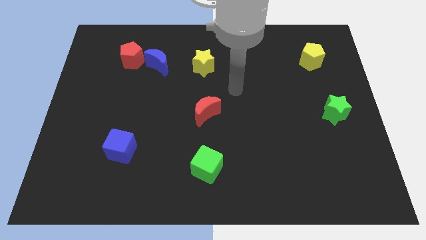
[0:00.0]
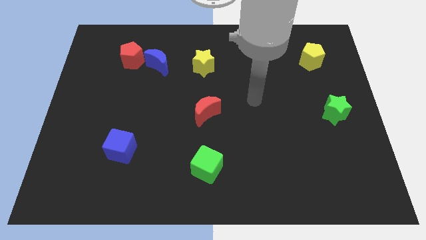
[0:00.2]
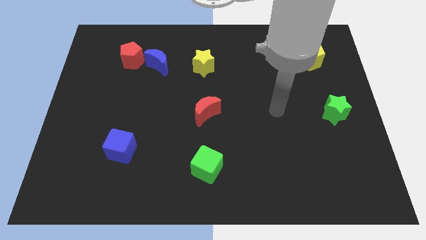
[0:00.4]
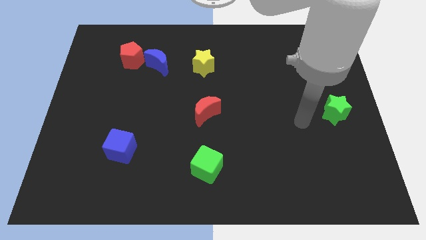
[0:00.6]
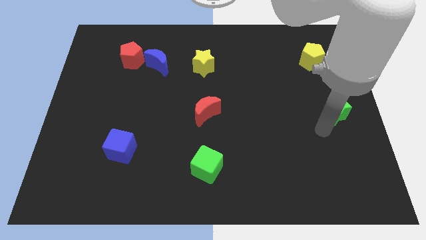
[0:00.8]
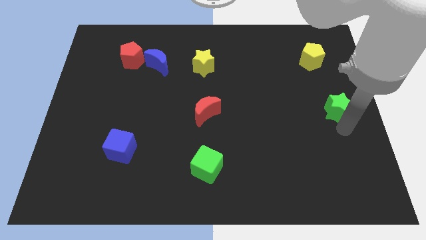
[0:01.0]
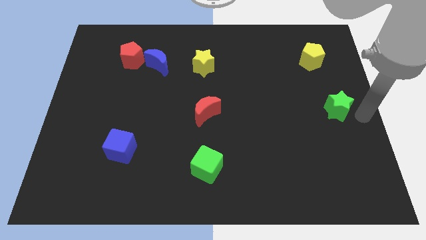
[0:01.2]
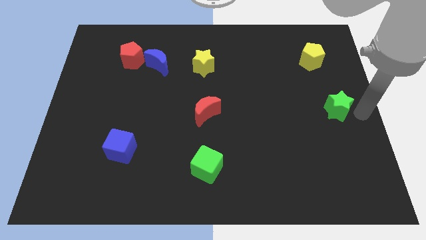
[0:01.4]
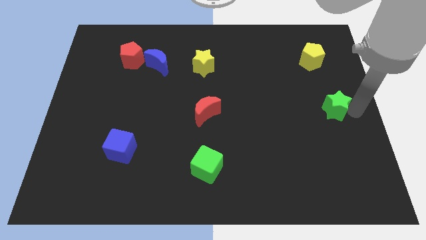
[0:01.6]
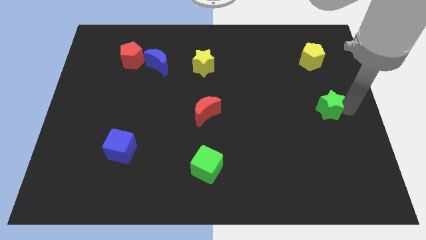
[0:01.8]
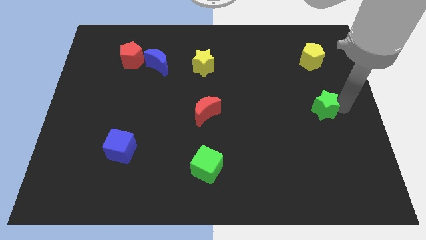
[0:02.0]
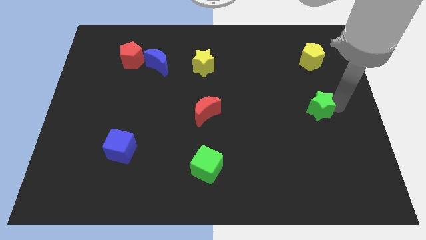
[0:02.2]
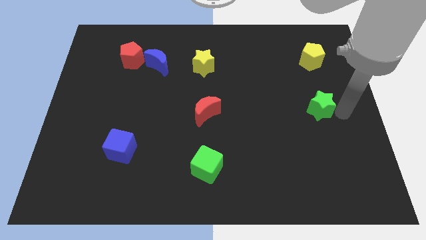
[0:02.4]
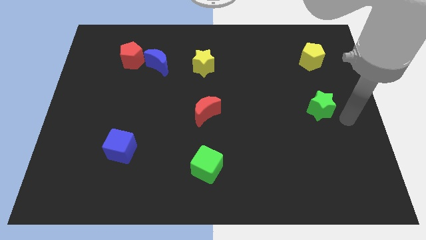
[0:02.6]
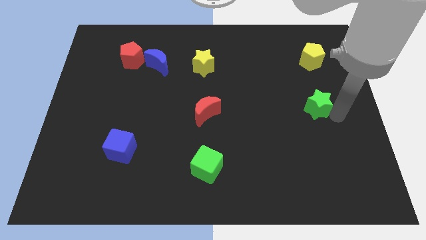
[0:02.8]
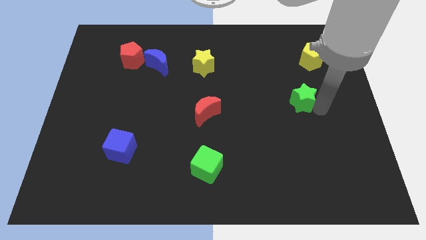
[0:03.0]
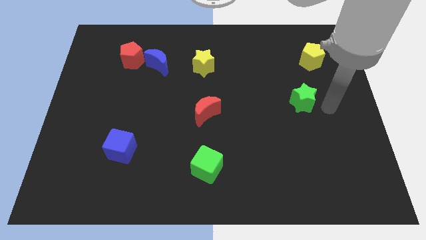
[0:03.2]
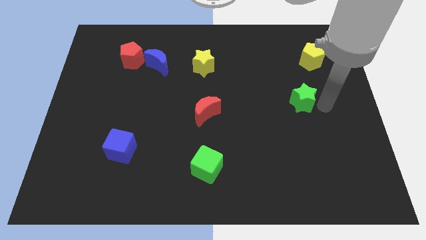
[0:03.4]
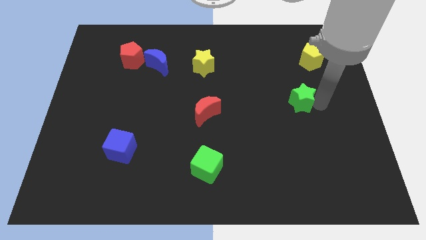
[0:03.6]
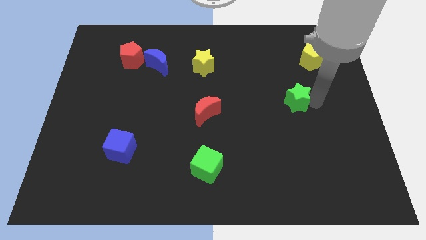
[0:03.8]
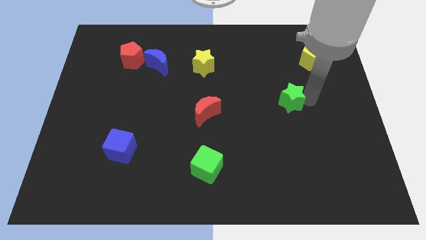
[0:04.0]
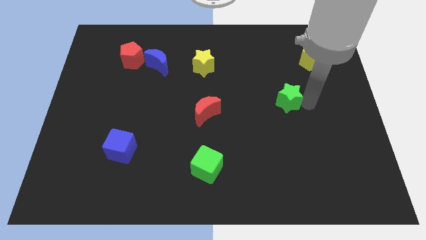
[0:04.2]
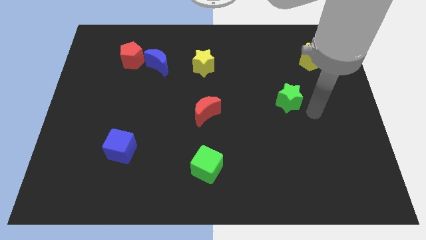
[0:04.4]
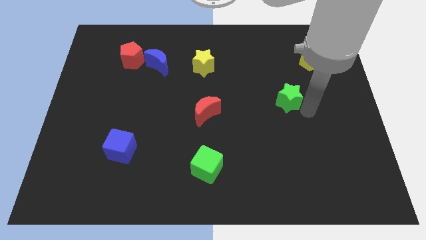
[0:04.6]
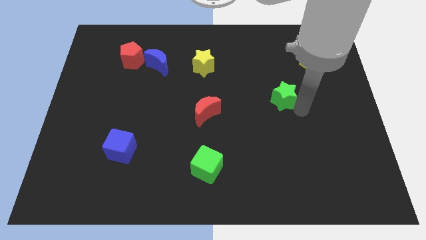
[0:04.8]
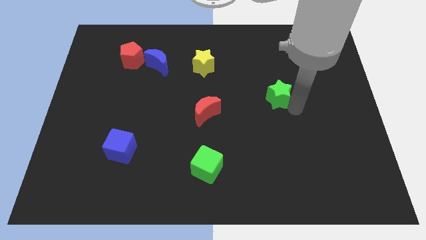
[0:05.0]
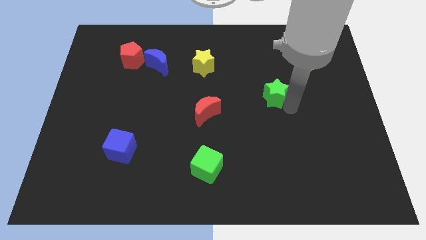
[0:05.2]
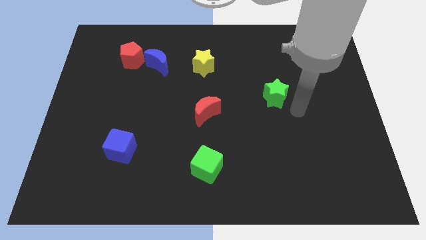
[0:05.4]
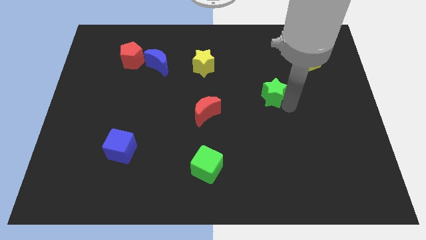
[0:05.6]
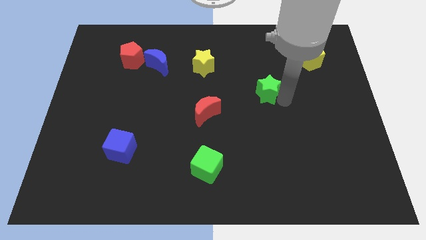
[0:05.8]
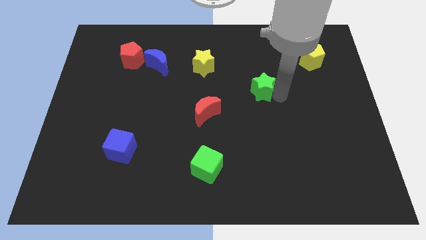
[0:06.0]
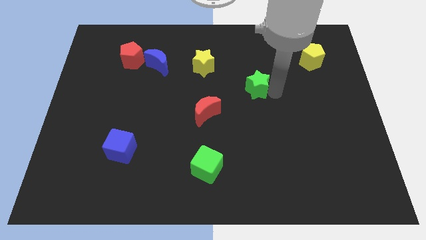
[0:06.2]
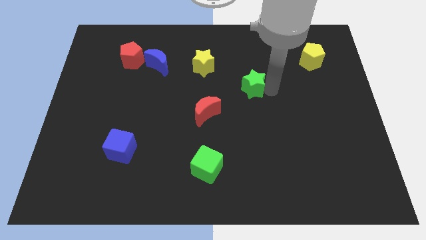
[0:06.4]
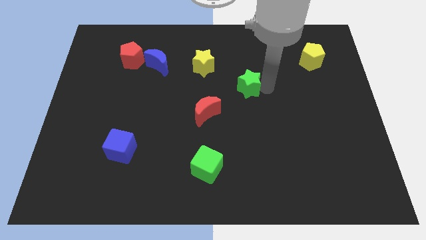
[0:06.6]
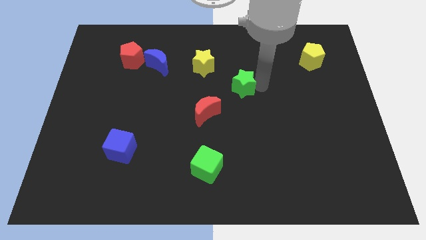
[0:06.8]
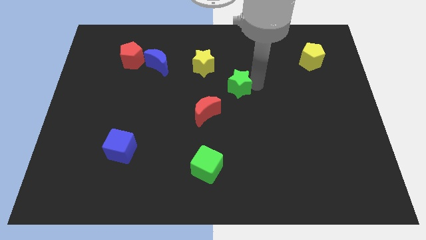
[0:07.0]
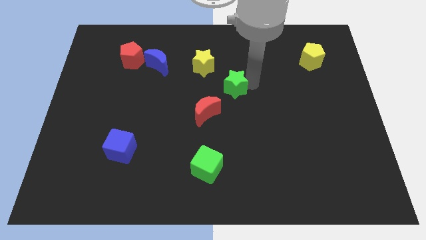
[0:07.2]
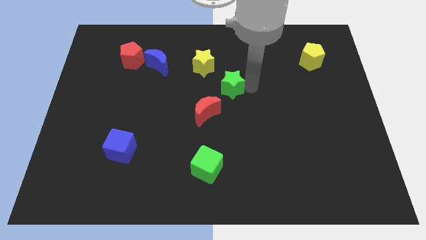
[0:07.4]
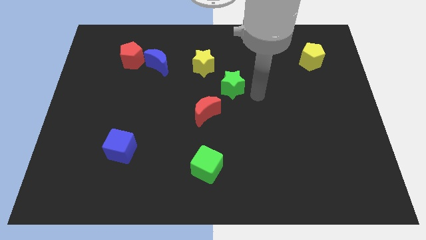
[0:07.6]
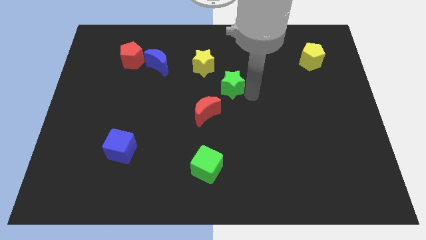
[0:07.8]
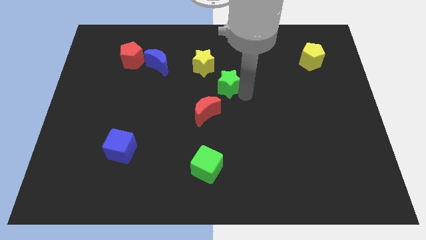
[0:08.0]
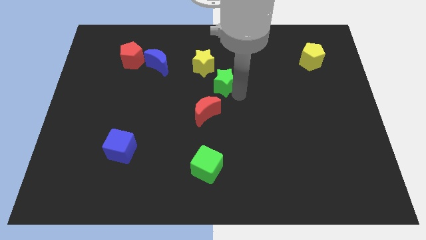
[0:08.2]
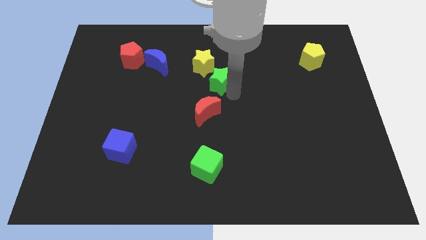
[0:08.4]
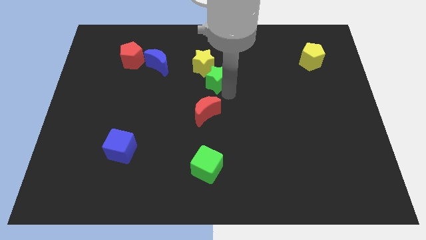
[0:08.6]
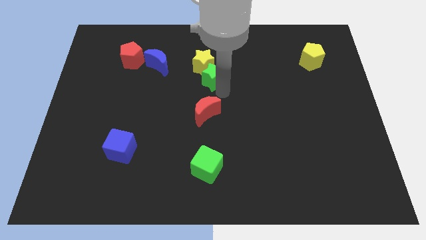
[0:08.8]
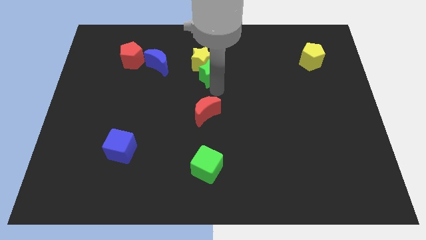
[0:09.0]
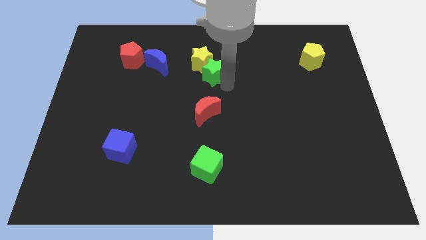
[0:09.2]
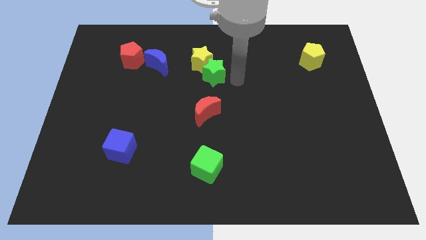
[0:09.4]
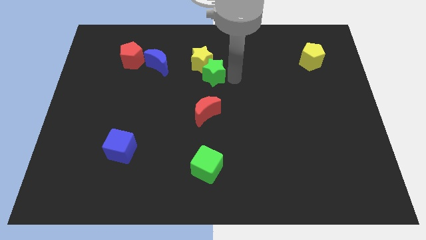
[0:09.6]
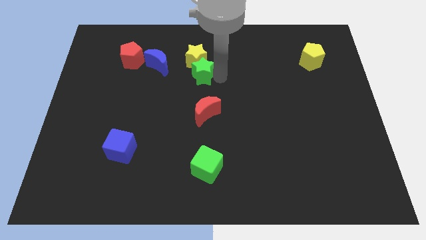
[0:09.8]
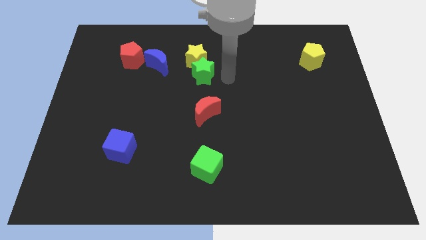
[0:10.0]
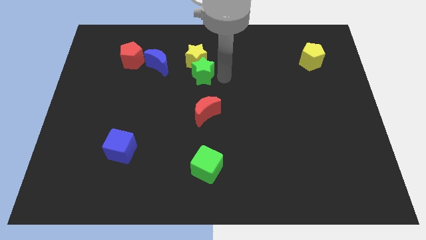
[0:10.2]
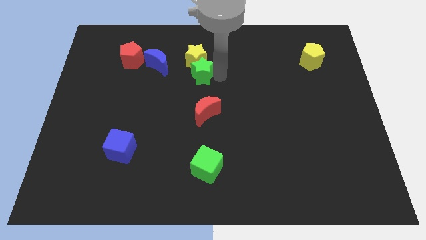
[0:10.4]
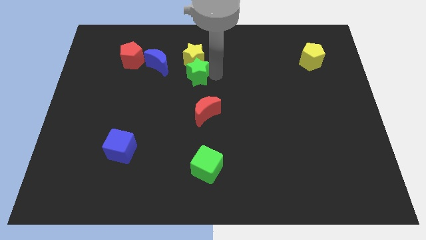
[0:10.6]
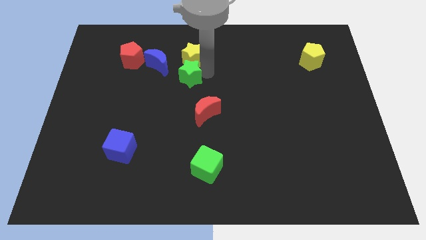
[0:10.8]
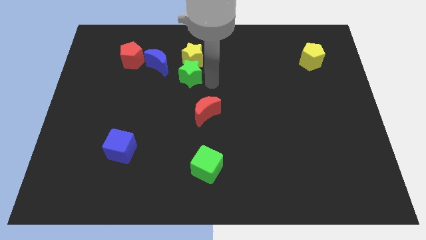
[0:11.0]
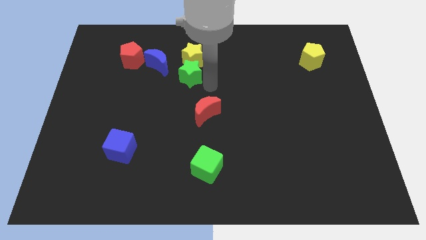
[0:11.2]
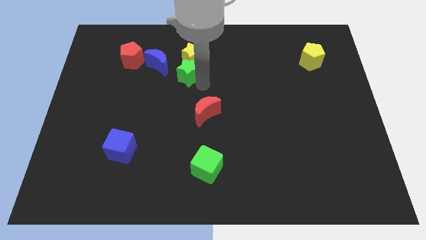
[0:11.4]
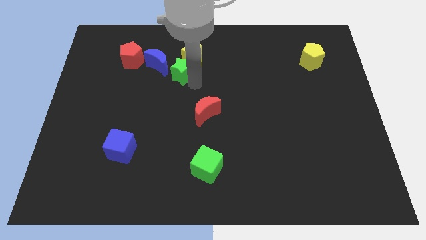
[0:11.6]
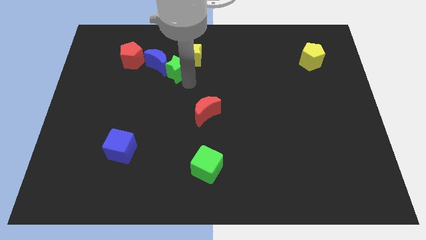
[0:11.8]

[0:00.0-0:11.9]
put the green star close to the blue moon

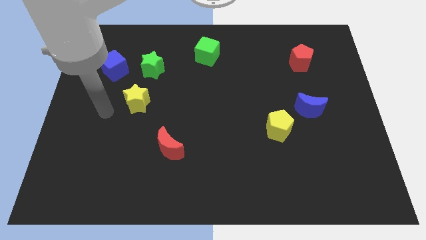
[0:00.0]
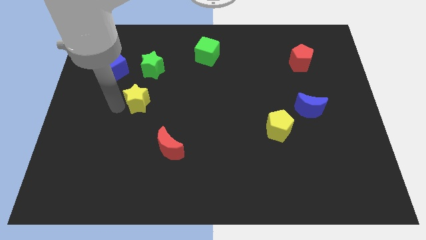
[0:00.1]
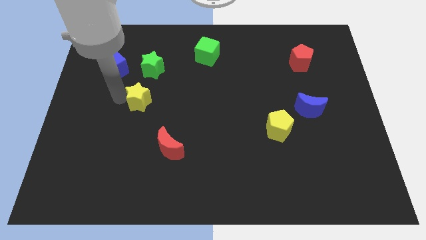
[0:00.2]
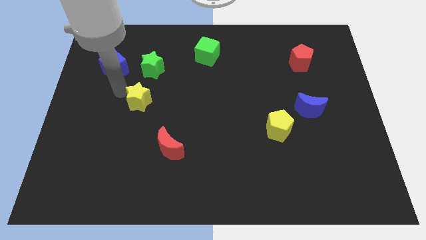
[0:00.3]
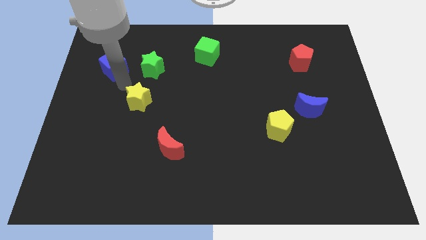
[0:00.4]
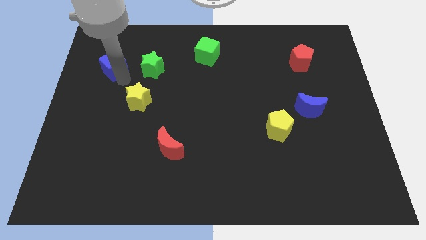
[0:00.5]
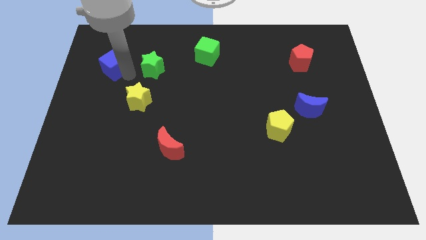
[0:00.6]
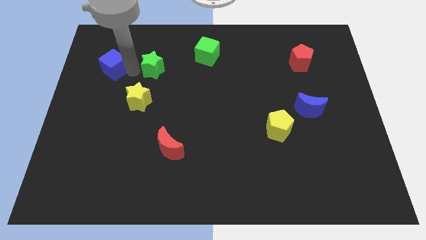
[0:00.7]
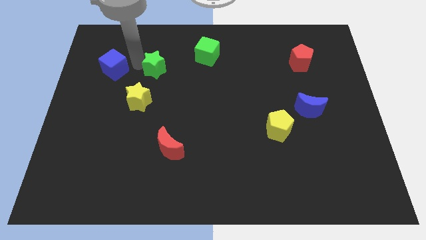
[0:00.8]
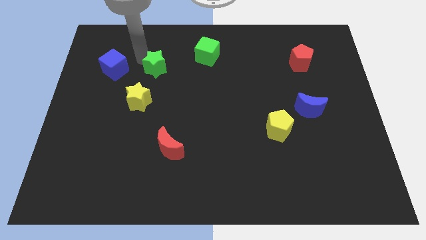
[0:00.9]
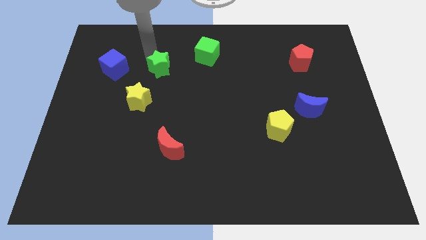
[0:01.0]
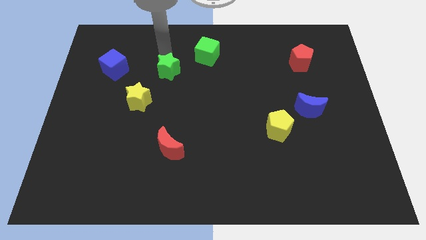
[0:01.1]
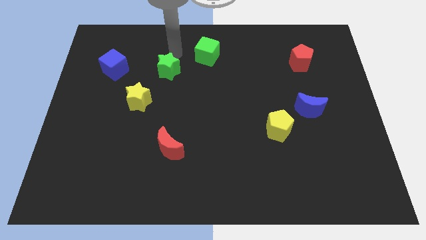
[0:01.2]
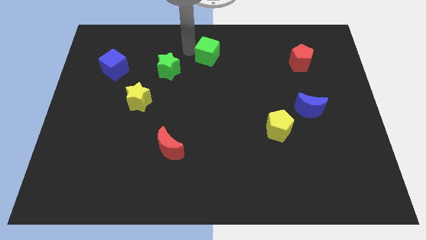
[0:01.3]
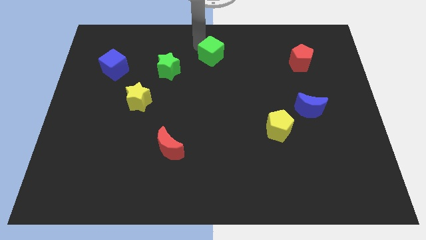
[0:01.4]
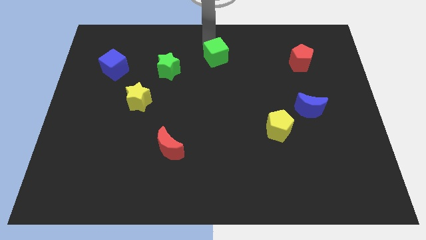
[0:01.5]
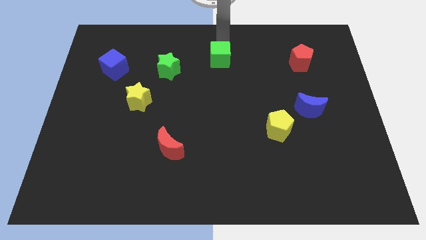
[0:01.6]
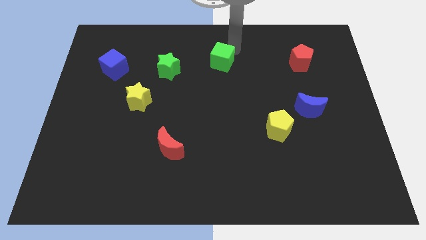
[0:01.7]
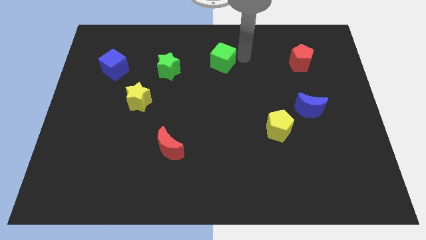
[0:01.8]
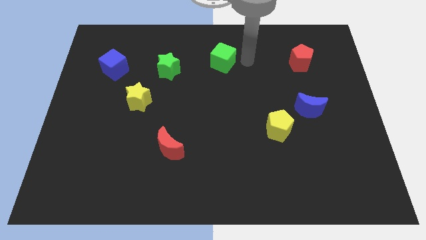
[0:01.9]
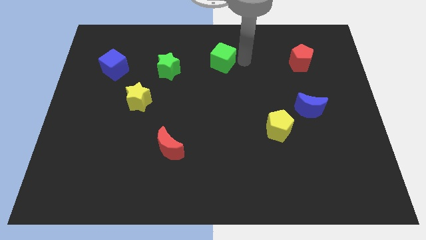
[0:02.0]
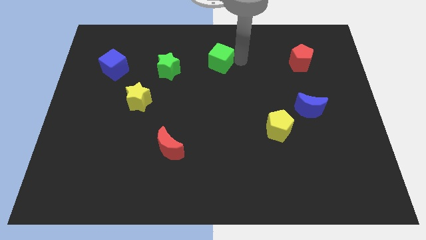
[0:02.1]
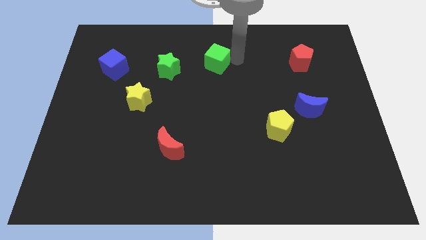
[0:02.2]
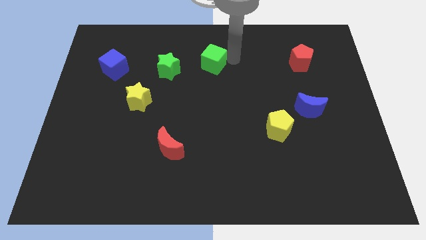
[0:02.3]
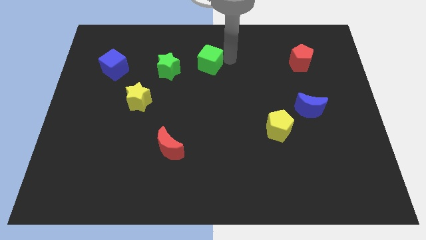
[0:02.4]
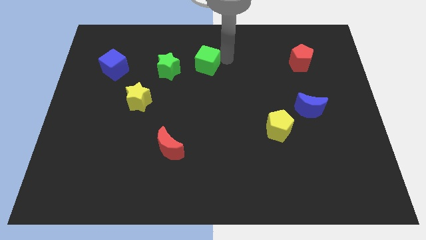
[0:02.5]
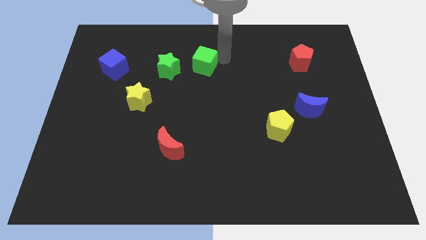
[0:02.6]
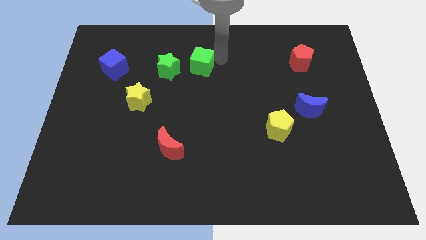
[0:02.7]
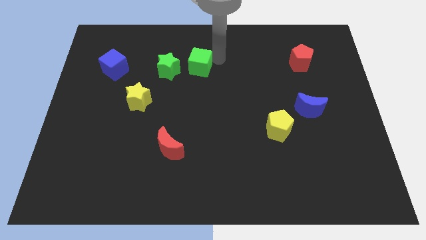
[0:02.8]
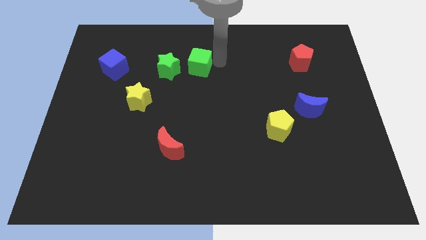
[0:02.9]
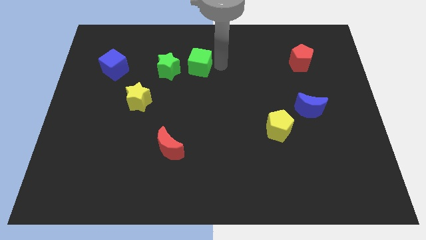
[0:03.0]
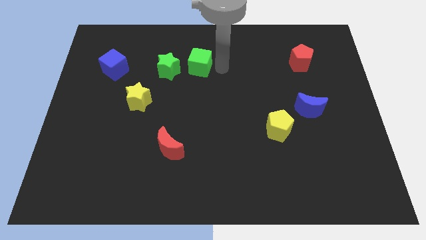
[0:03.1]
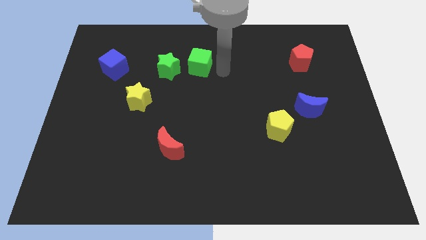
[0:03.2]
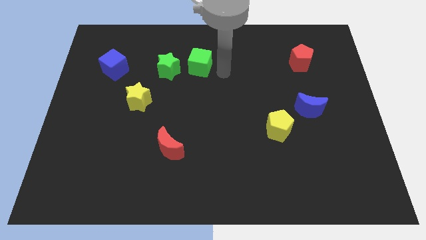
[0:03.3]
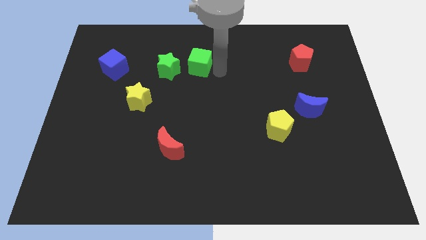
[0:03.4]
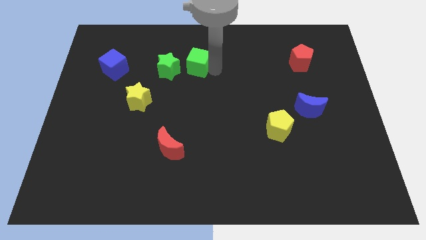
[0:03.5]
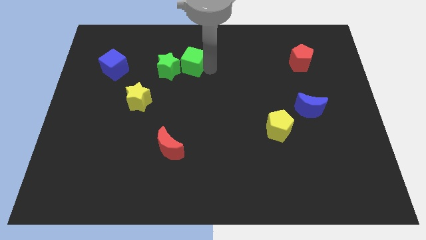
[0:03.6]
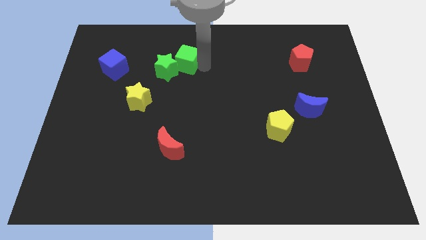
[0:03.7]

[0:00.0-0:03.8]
move the green cube to the green star
